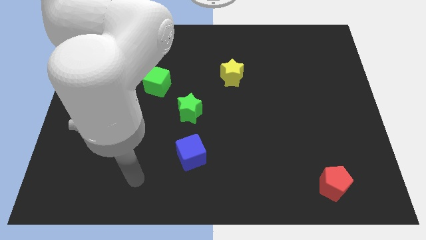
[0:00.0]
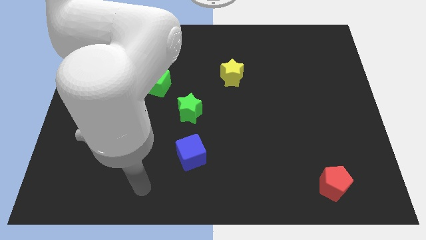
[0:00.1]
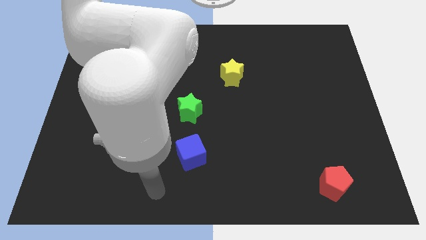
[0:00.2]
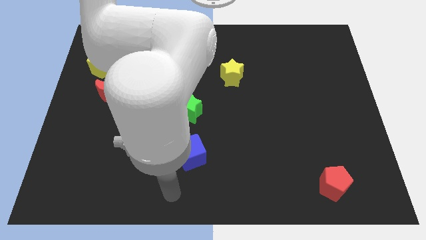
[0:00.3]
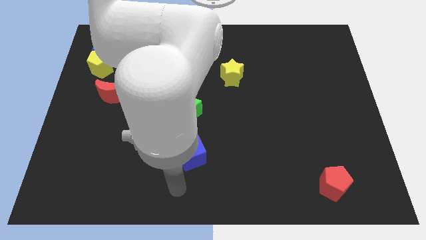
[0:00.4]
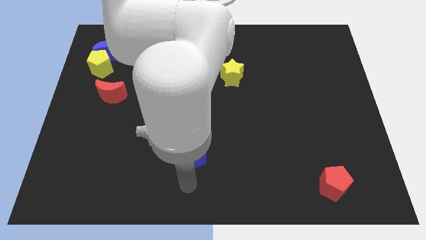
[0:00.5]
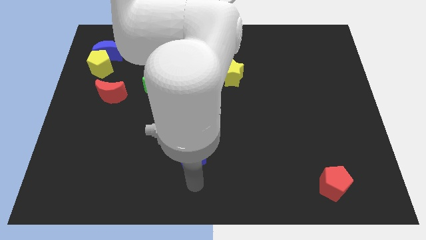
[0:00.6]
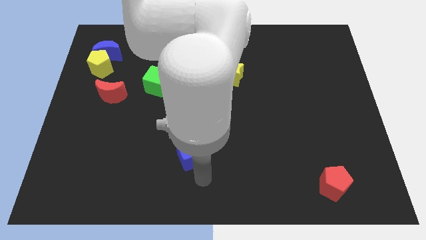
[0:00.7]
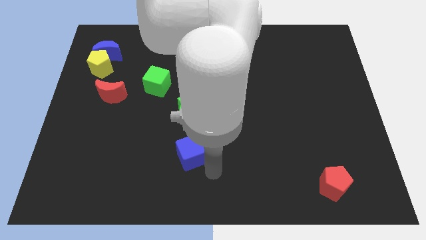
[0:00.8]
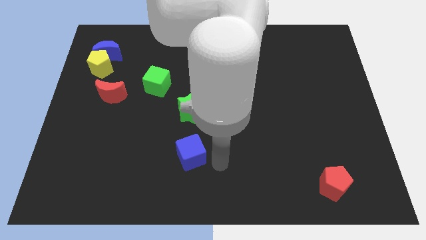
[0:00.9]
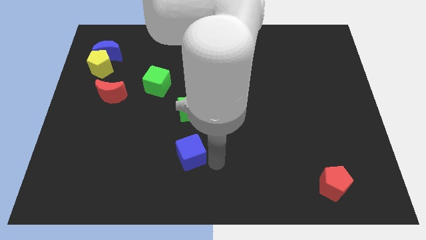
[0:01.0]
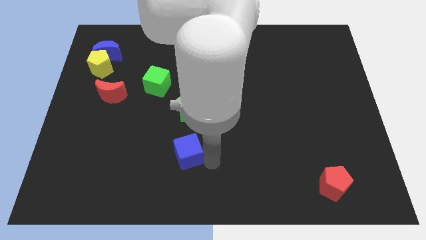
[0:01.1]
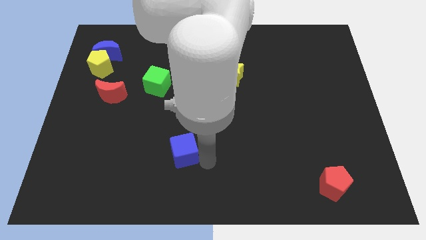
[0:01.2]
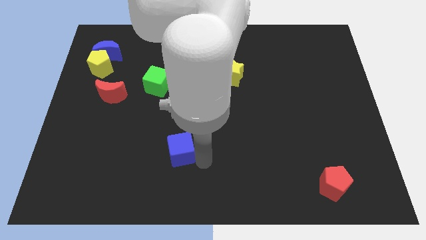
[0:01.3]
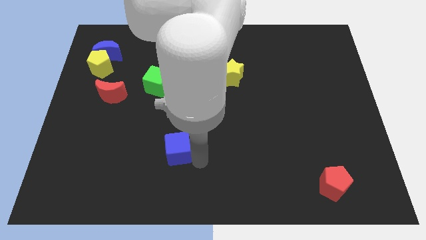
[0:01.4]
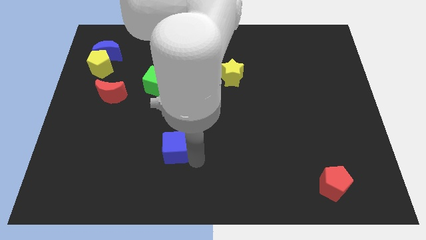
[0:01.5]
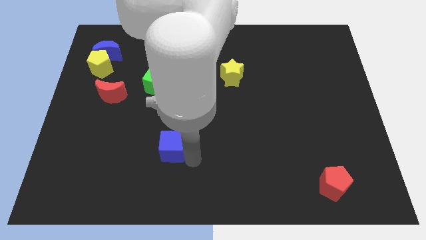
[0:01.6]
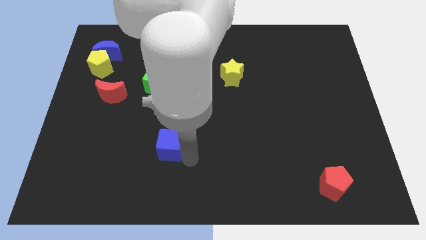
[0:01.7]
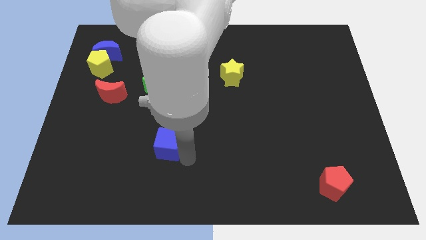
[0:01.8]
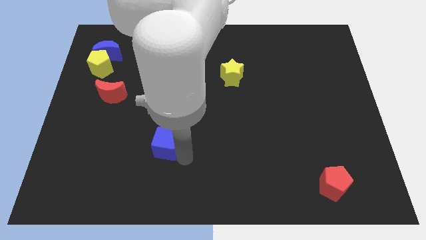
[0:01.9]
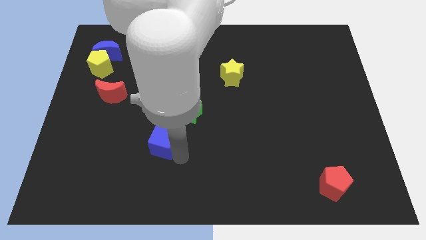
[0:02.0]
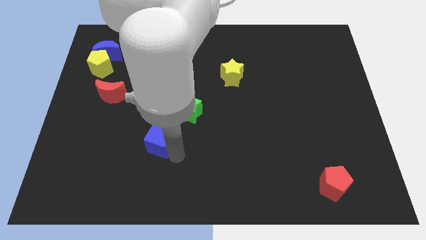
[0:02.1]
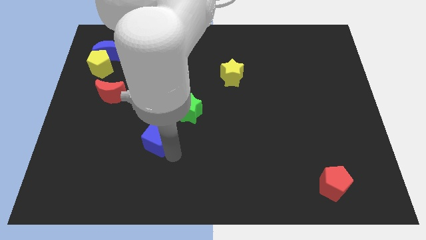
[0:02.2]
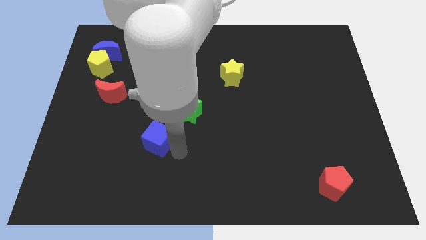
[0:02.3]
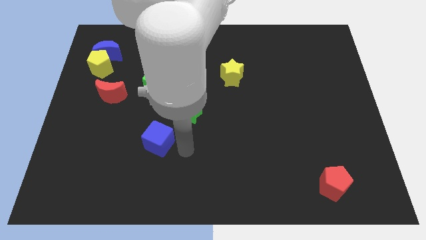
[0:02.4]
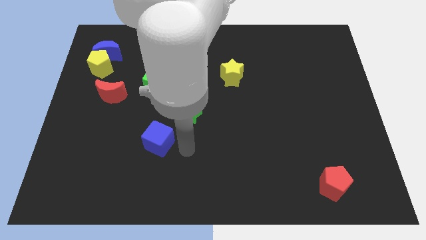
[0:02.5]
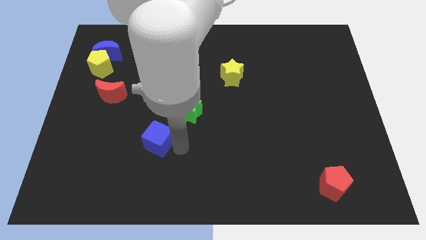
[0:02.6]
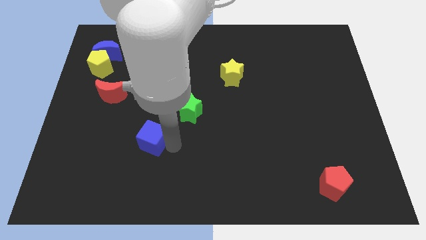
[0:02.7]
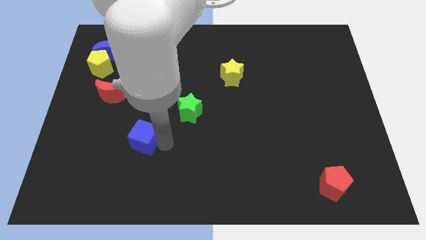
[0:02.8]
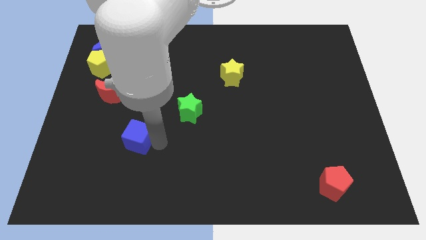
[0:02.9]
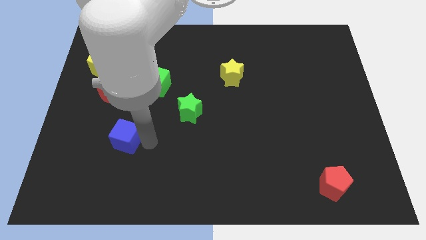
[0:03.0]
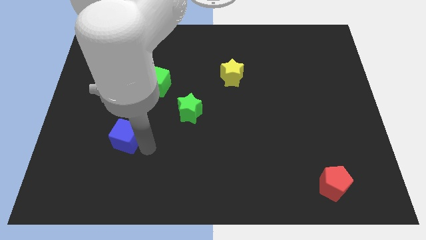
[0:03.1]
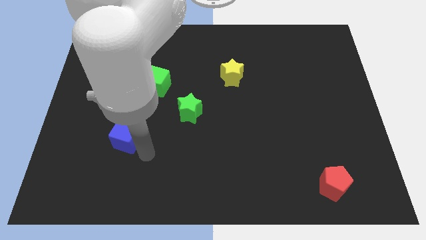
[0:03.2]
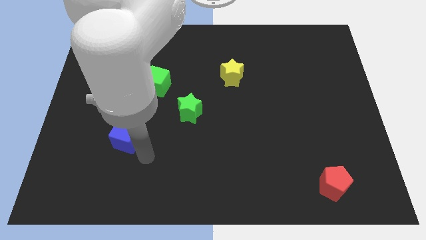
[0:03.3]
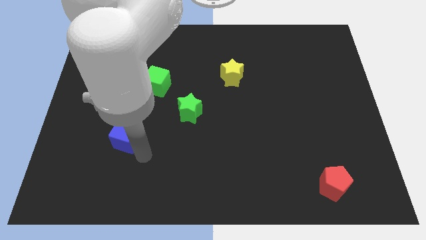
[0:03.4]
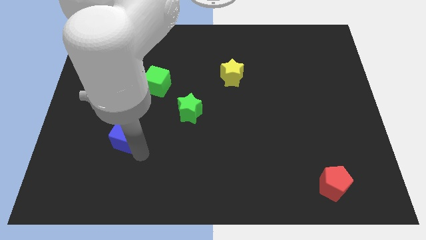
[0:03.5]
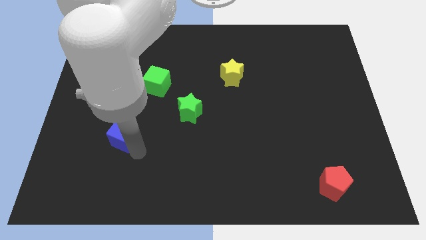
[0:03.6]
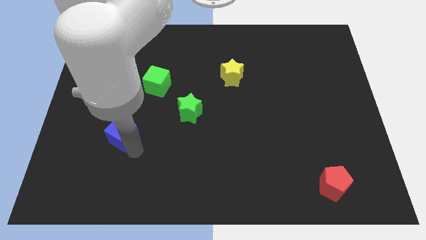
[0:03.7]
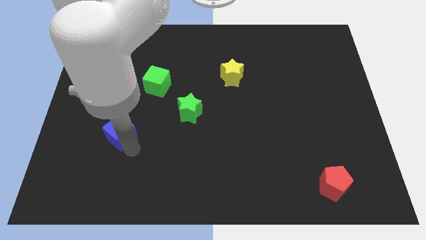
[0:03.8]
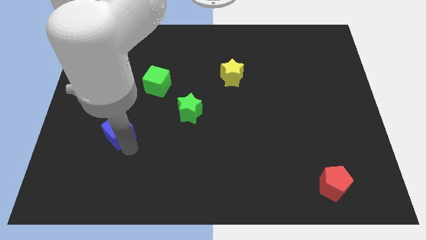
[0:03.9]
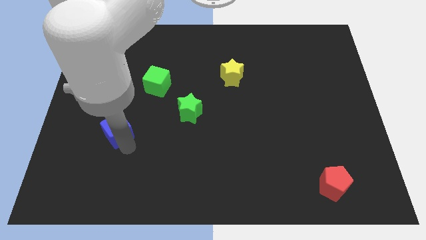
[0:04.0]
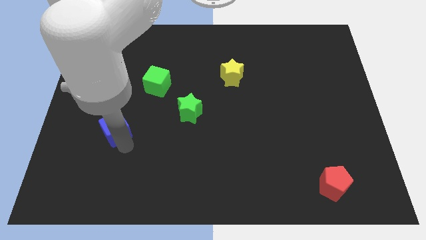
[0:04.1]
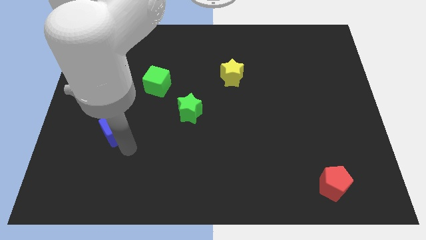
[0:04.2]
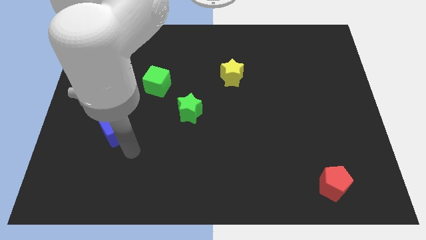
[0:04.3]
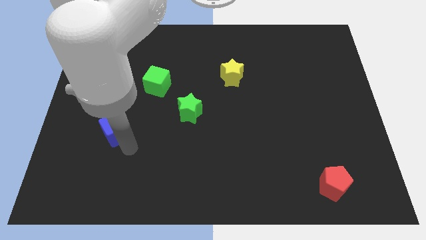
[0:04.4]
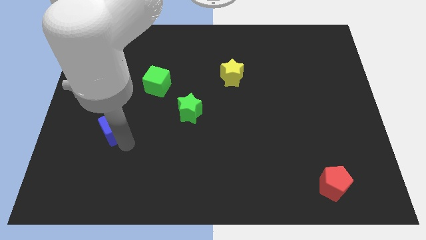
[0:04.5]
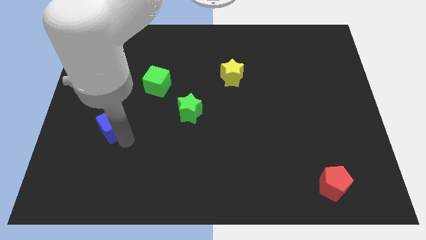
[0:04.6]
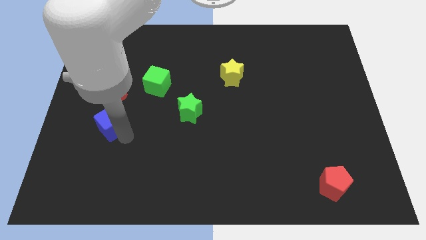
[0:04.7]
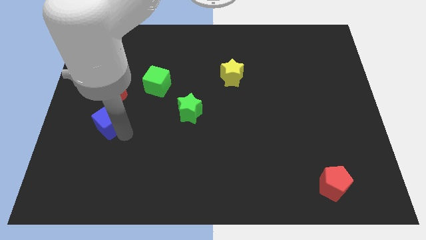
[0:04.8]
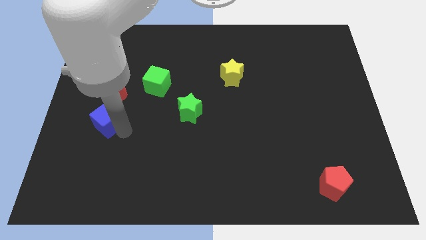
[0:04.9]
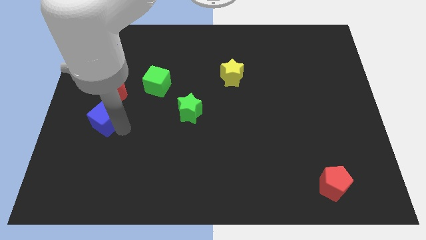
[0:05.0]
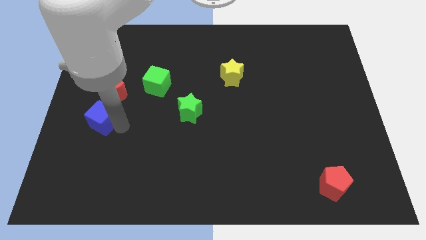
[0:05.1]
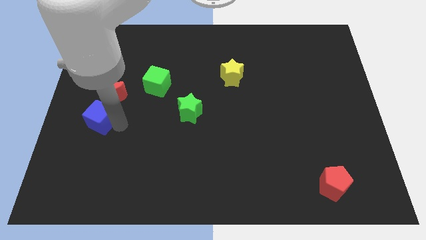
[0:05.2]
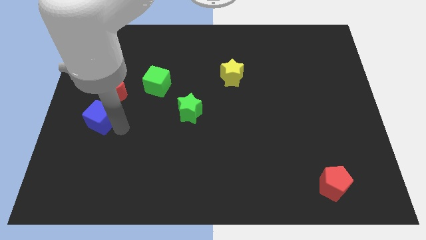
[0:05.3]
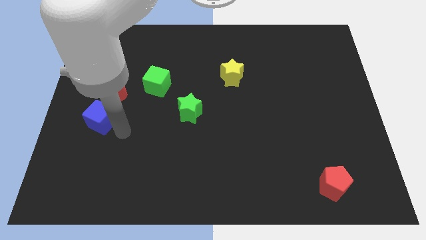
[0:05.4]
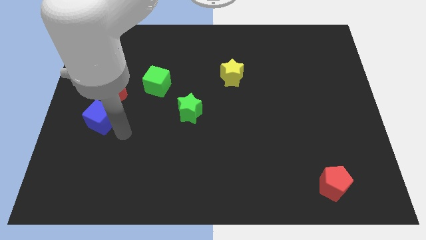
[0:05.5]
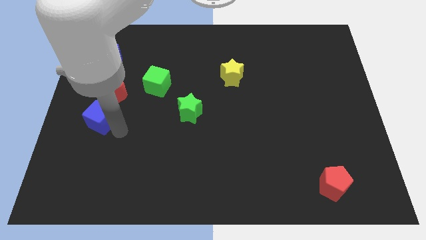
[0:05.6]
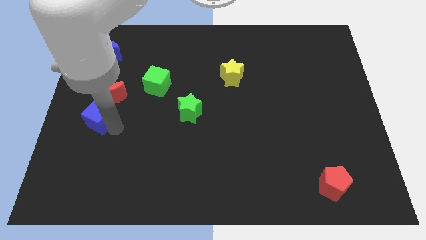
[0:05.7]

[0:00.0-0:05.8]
move the blue cube to the center left

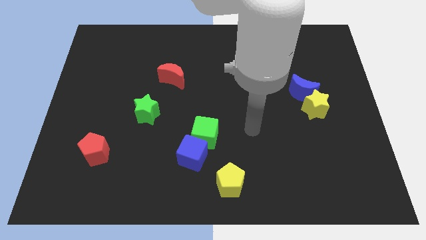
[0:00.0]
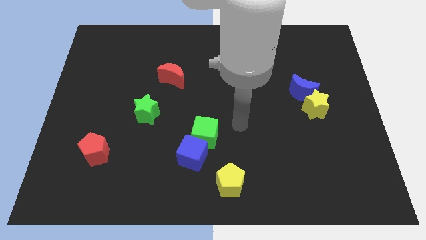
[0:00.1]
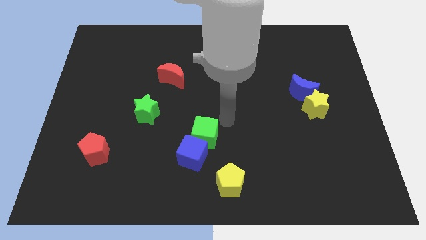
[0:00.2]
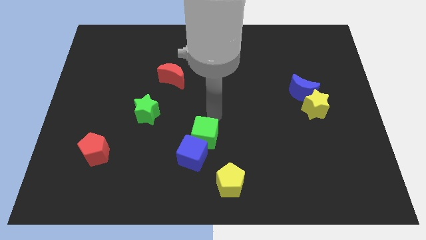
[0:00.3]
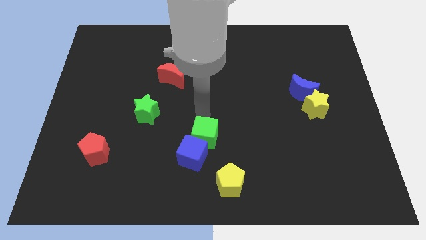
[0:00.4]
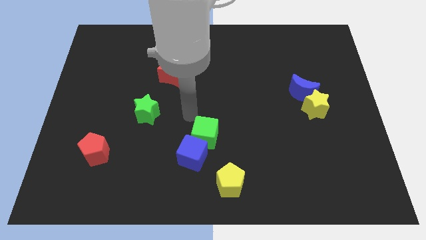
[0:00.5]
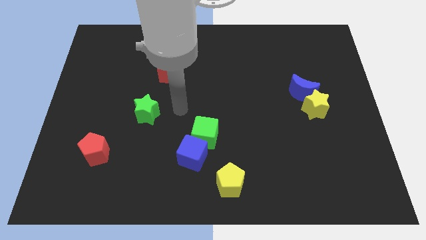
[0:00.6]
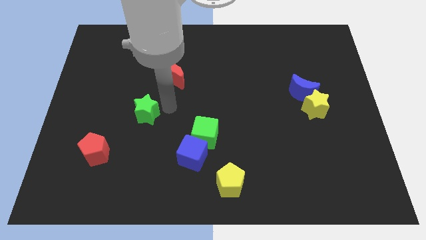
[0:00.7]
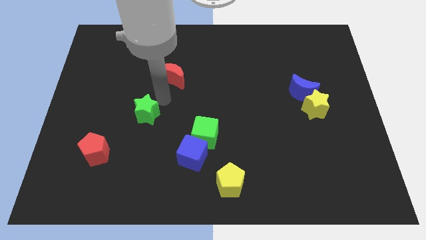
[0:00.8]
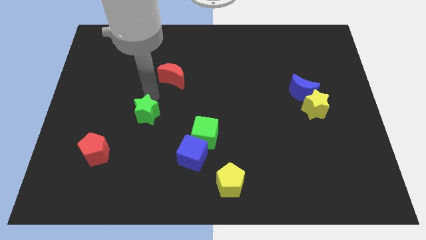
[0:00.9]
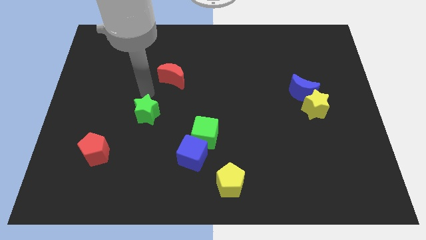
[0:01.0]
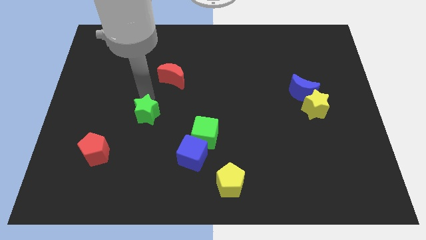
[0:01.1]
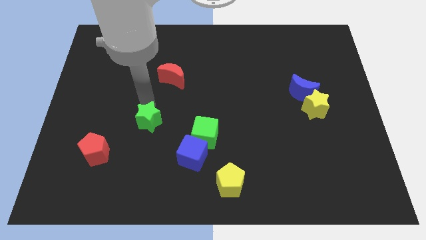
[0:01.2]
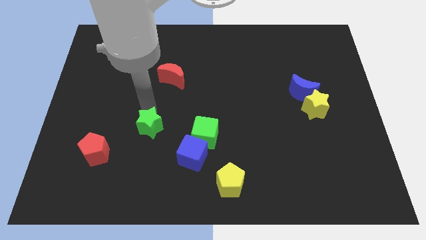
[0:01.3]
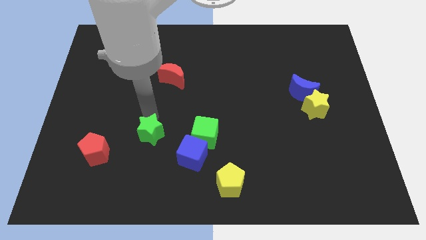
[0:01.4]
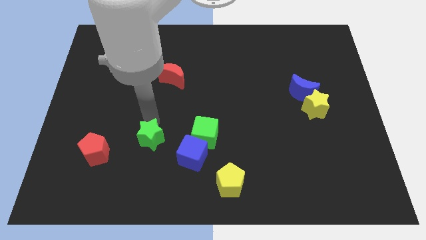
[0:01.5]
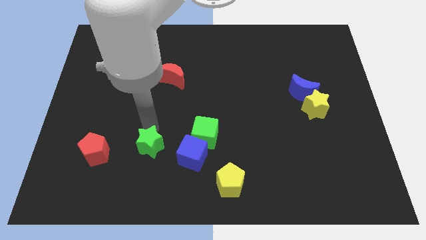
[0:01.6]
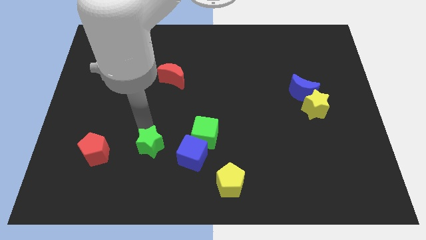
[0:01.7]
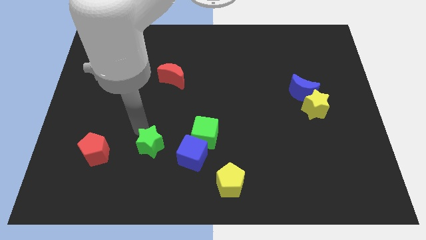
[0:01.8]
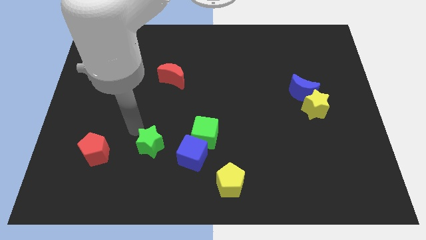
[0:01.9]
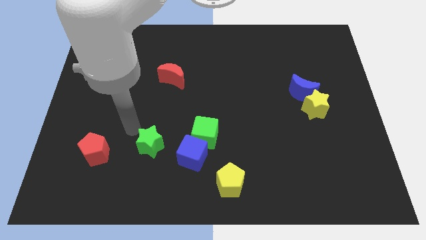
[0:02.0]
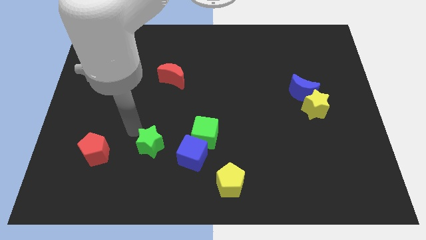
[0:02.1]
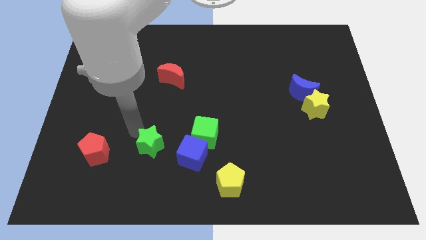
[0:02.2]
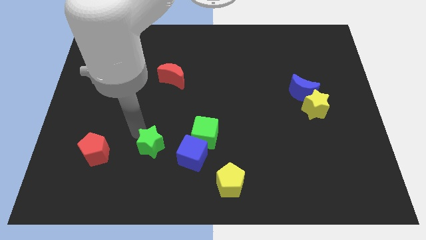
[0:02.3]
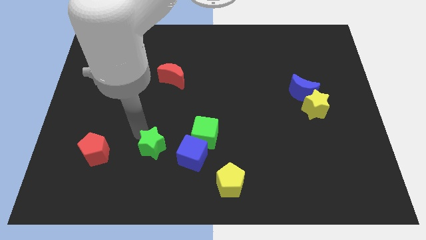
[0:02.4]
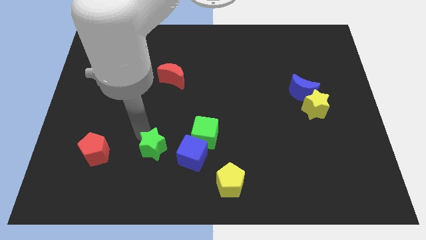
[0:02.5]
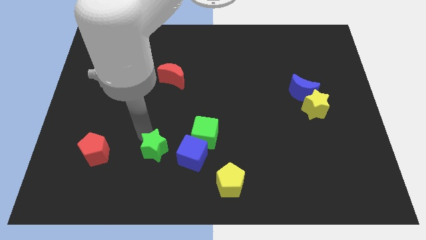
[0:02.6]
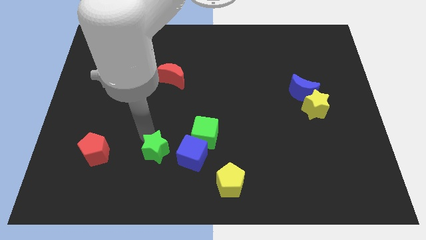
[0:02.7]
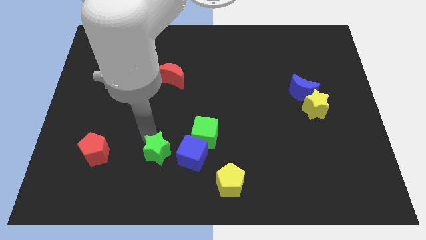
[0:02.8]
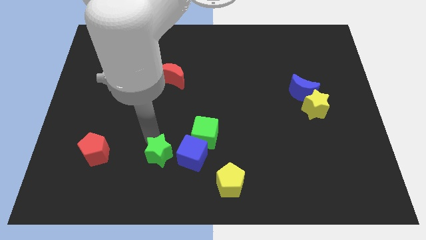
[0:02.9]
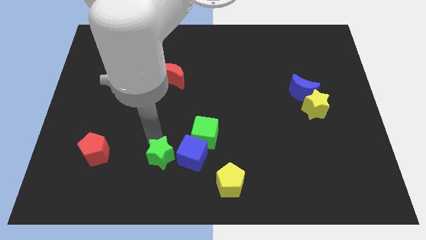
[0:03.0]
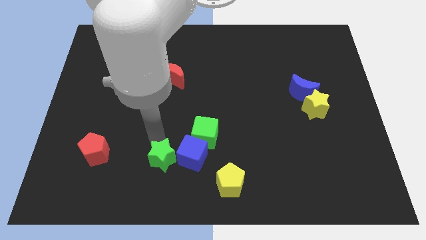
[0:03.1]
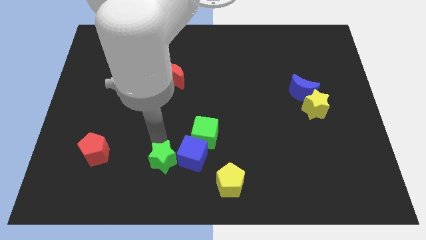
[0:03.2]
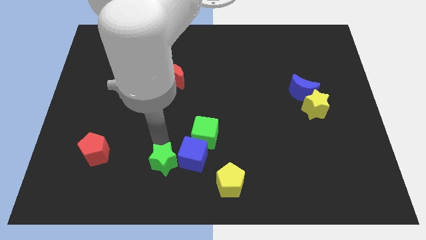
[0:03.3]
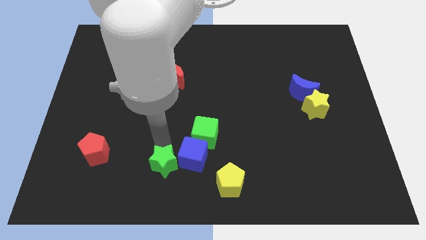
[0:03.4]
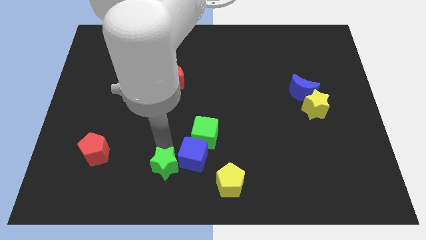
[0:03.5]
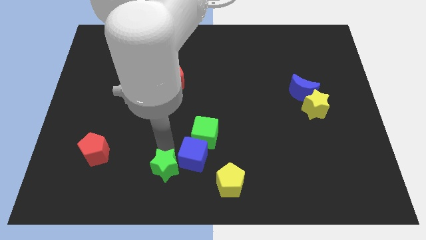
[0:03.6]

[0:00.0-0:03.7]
push the green star to the bottom side
